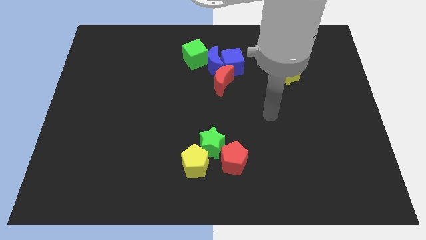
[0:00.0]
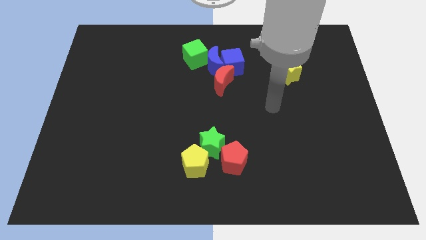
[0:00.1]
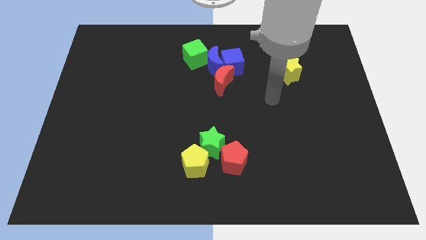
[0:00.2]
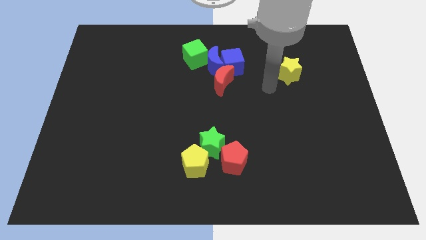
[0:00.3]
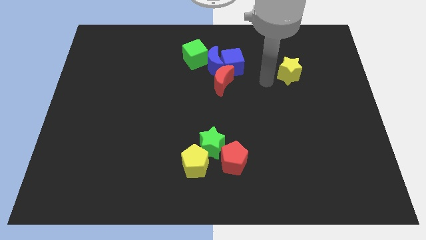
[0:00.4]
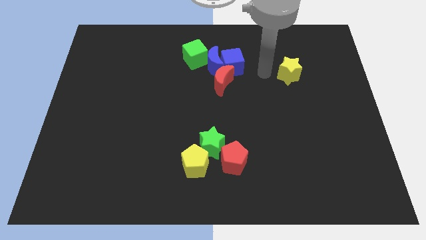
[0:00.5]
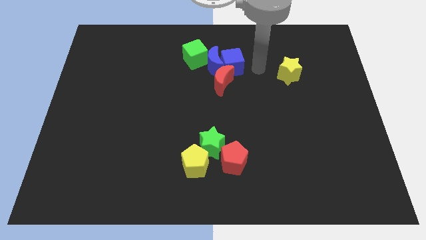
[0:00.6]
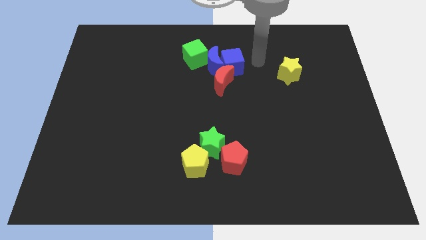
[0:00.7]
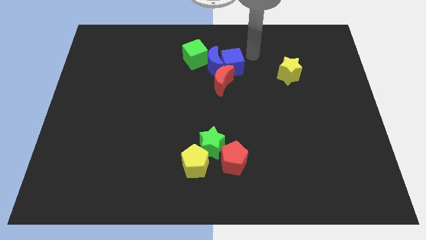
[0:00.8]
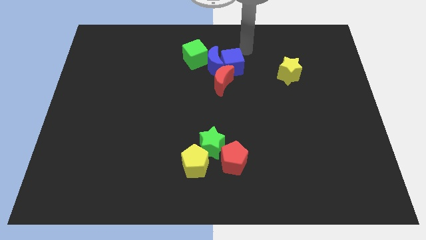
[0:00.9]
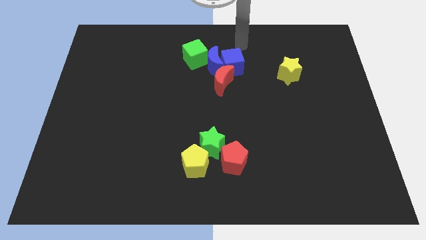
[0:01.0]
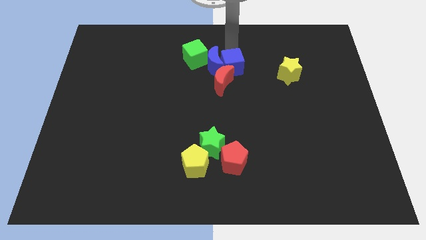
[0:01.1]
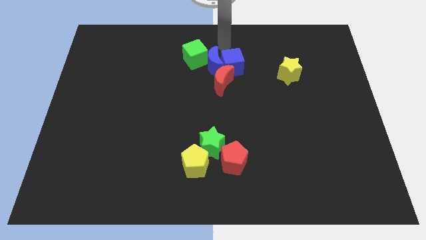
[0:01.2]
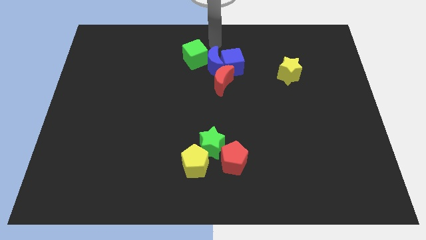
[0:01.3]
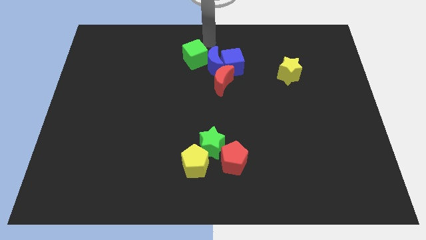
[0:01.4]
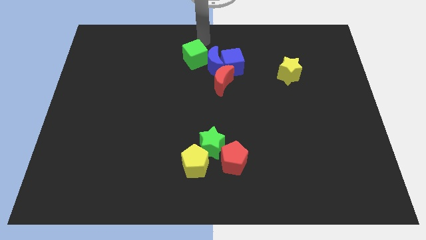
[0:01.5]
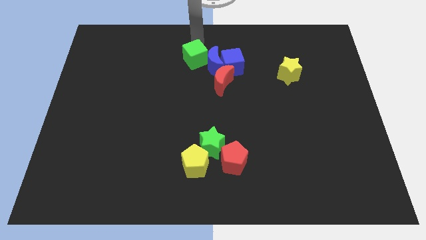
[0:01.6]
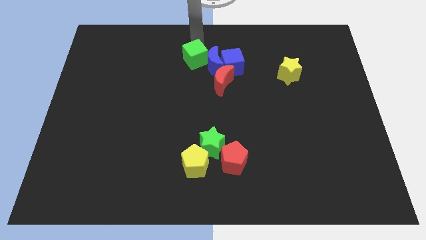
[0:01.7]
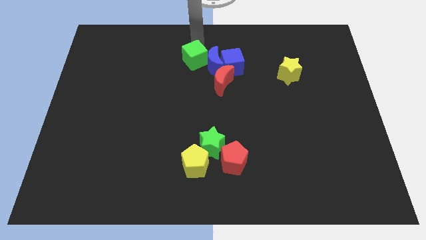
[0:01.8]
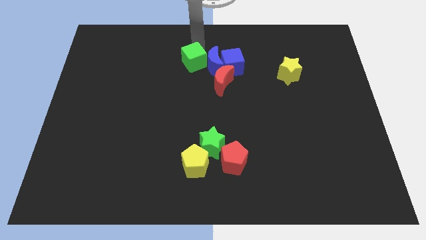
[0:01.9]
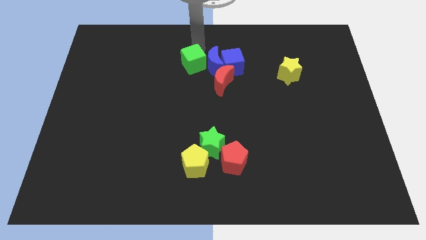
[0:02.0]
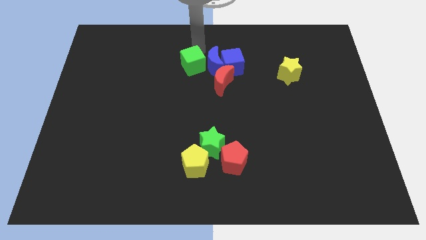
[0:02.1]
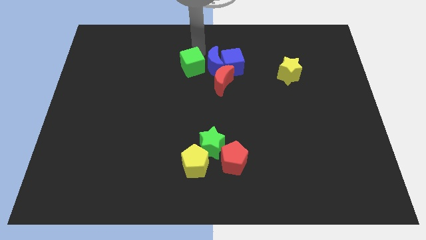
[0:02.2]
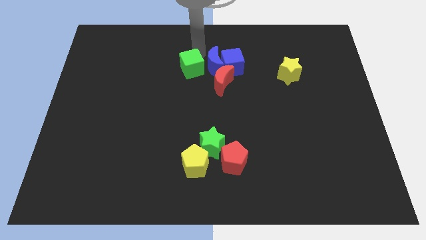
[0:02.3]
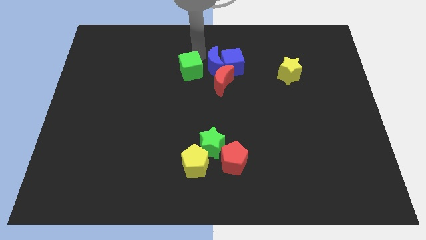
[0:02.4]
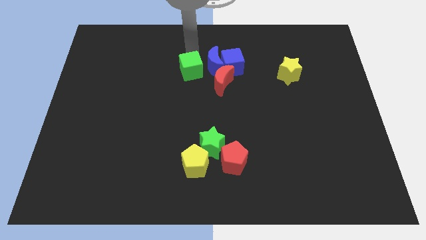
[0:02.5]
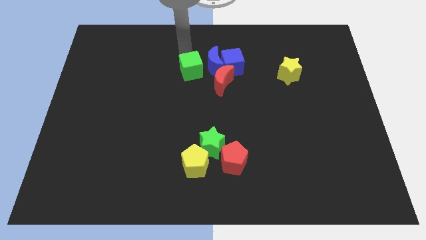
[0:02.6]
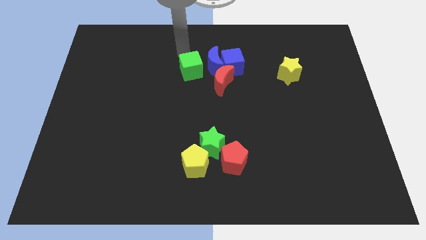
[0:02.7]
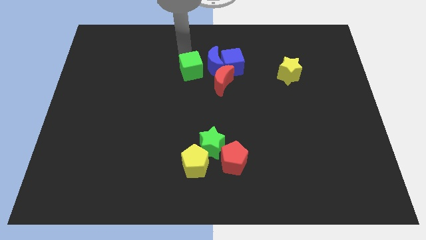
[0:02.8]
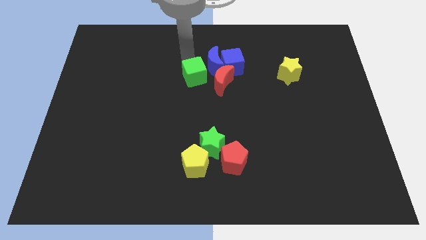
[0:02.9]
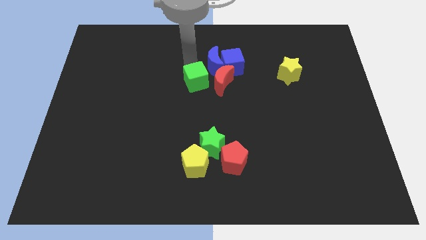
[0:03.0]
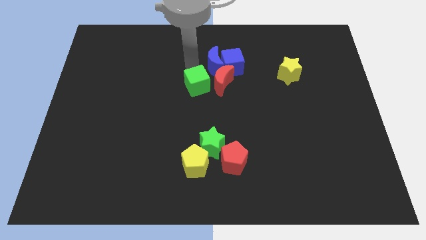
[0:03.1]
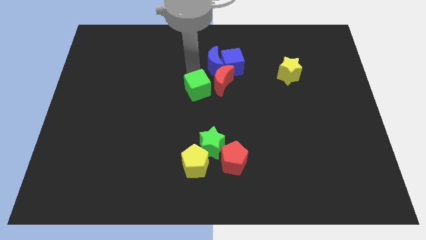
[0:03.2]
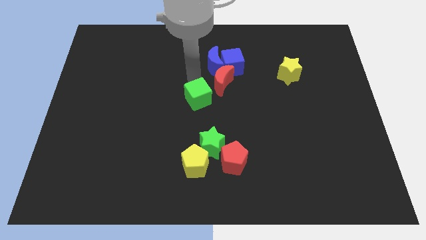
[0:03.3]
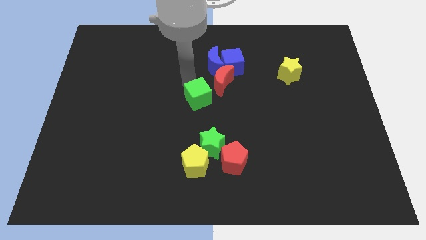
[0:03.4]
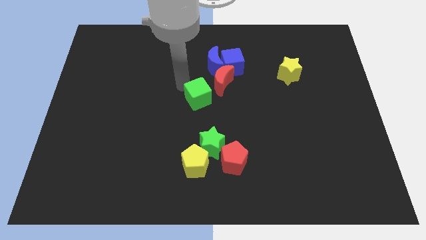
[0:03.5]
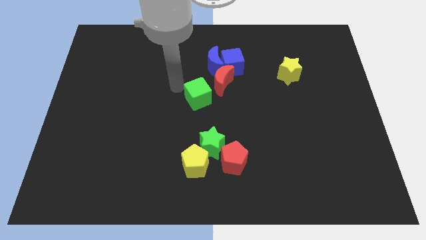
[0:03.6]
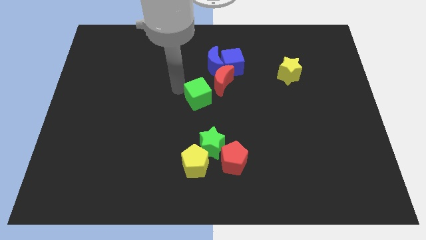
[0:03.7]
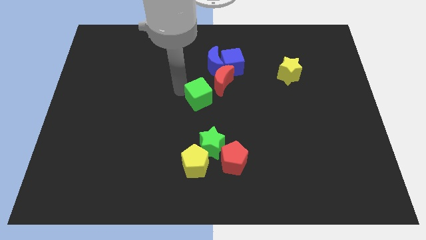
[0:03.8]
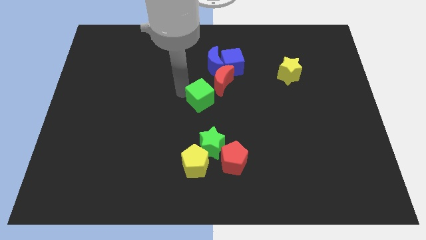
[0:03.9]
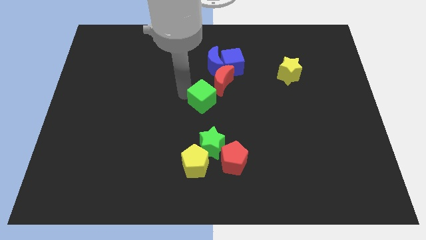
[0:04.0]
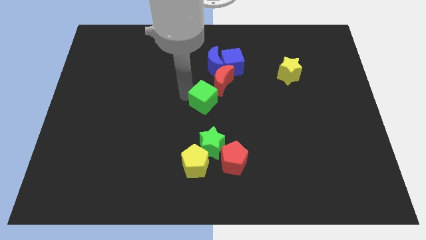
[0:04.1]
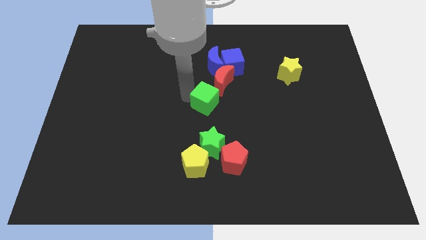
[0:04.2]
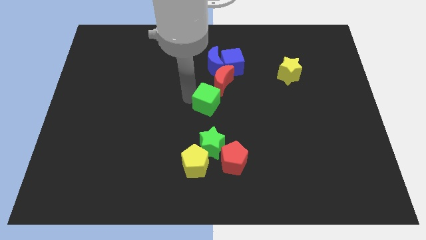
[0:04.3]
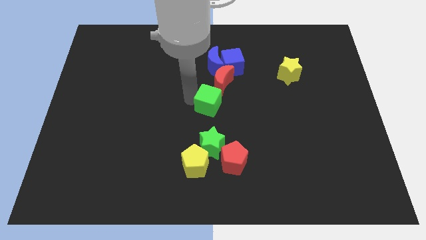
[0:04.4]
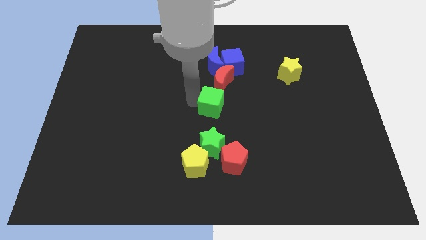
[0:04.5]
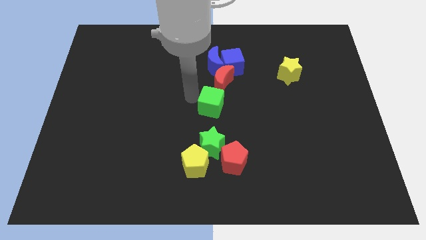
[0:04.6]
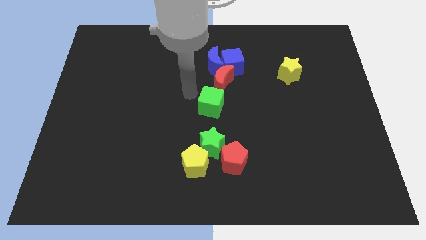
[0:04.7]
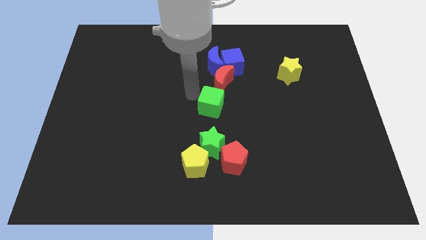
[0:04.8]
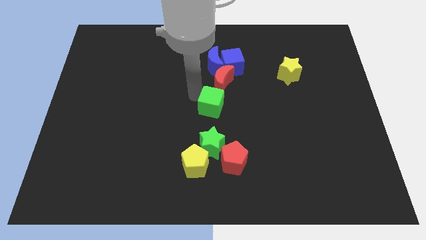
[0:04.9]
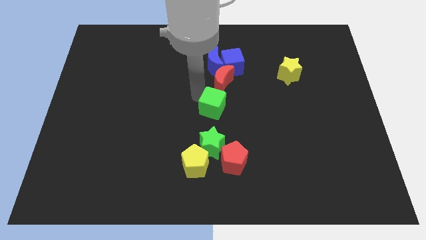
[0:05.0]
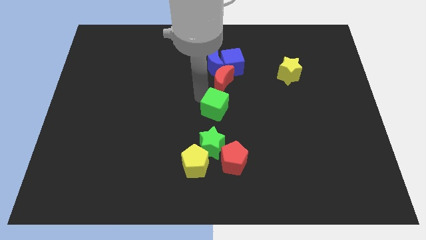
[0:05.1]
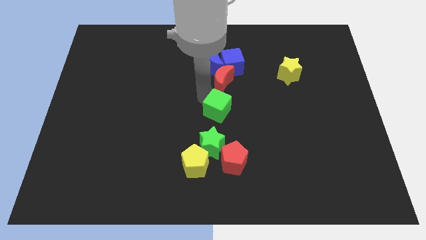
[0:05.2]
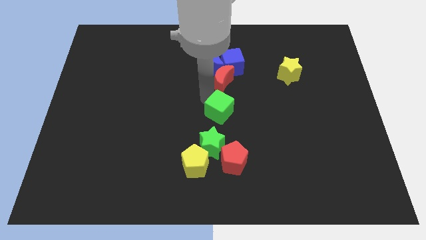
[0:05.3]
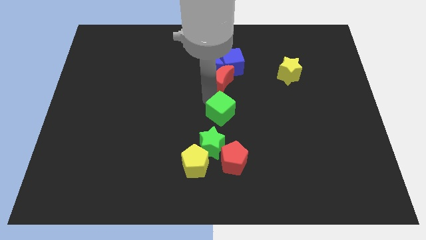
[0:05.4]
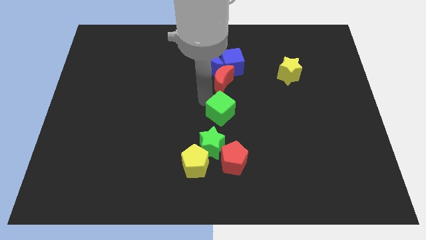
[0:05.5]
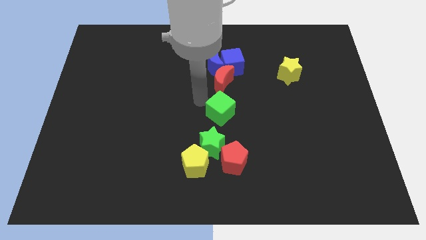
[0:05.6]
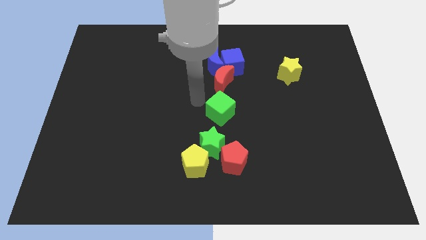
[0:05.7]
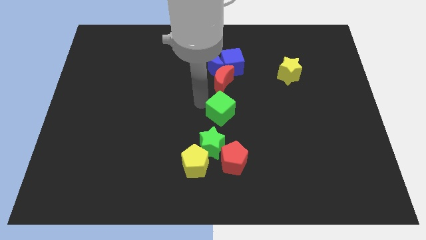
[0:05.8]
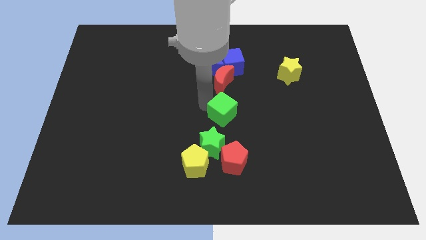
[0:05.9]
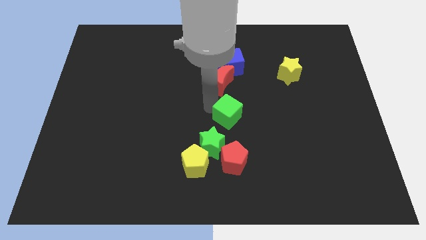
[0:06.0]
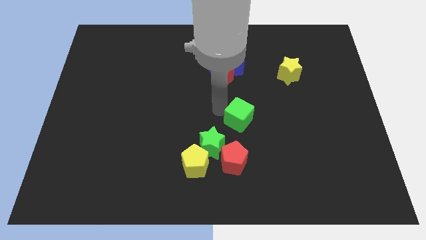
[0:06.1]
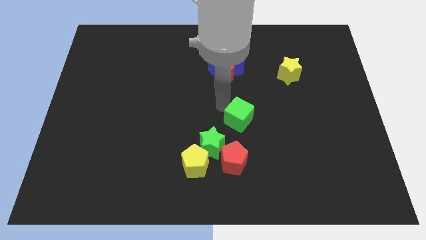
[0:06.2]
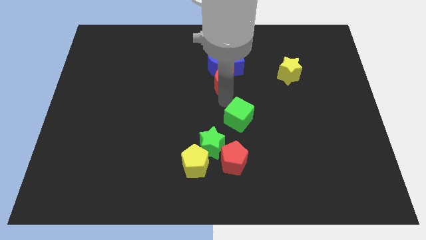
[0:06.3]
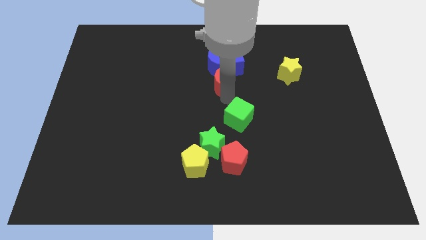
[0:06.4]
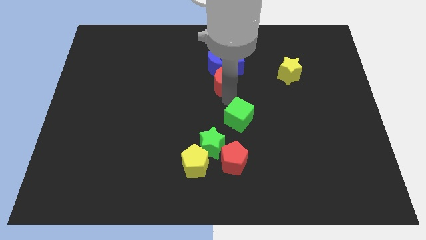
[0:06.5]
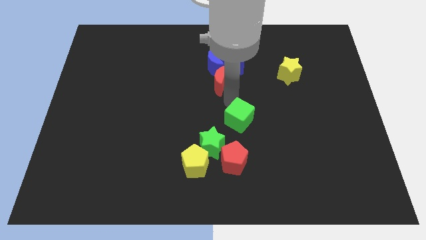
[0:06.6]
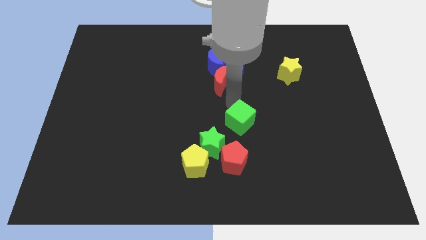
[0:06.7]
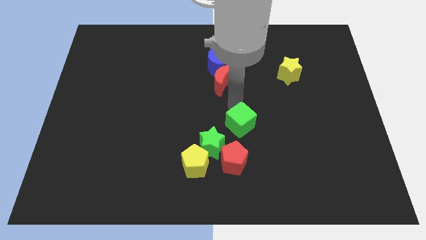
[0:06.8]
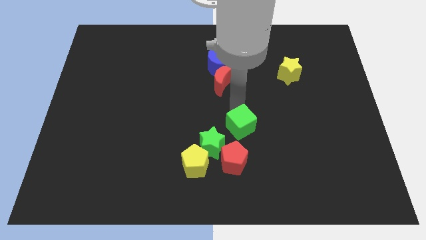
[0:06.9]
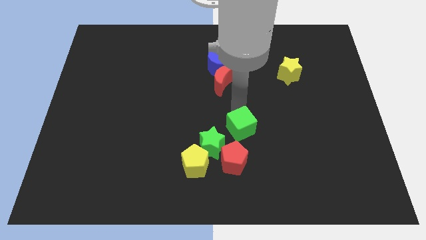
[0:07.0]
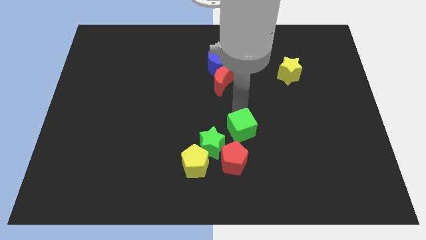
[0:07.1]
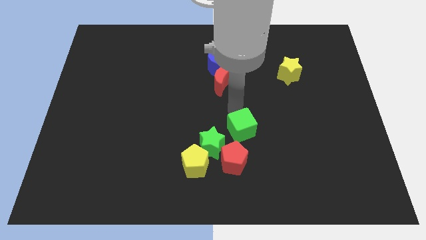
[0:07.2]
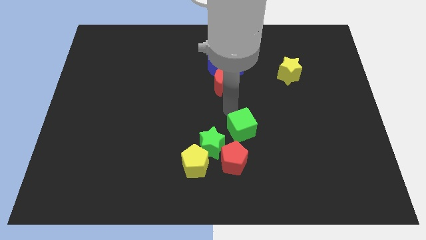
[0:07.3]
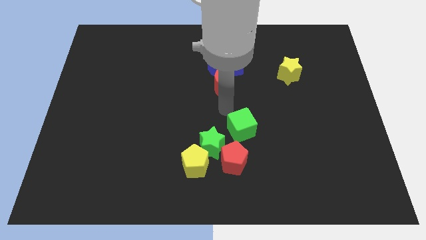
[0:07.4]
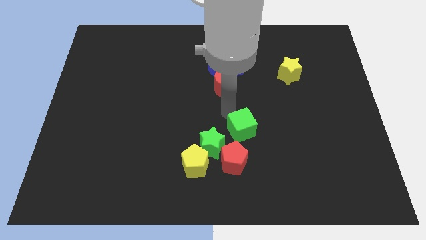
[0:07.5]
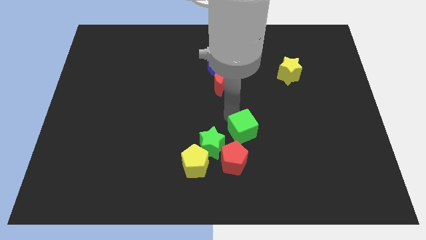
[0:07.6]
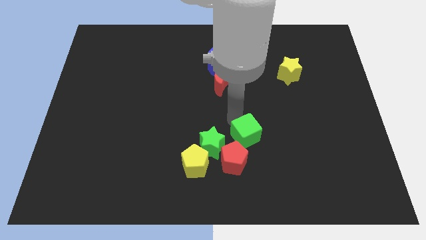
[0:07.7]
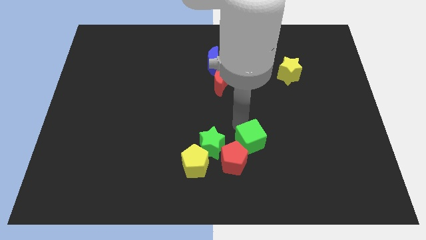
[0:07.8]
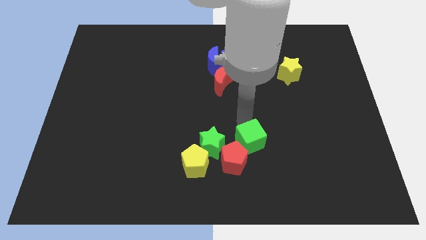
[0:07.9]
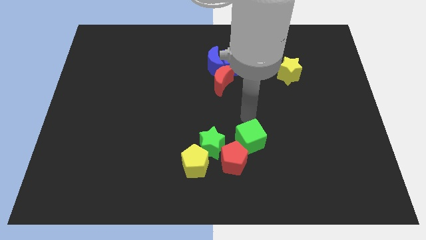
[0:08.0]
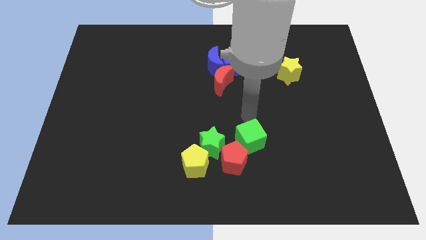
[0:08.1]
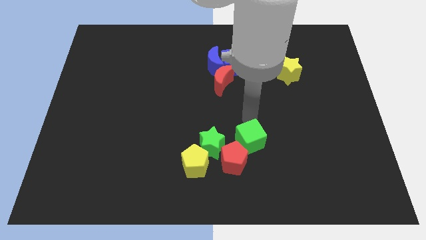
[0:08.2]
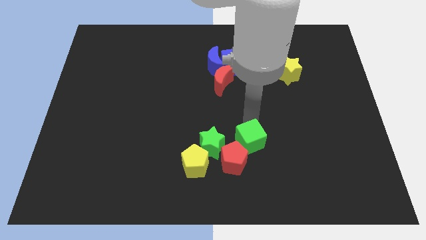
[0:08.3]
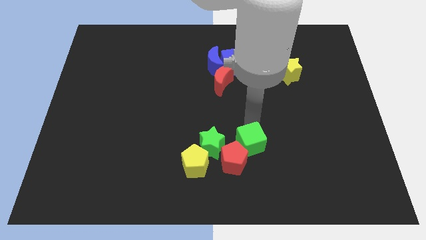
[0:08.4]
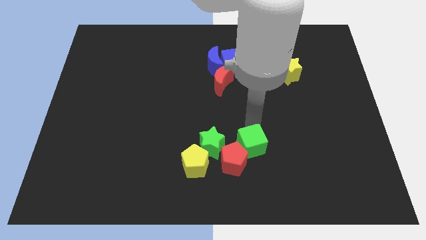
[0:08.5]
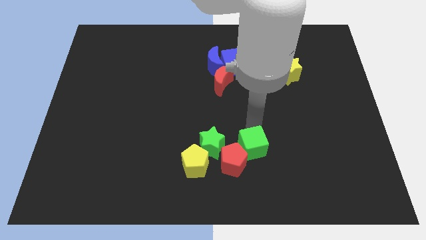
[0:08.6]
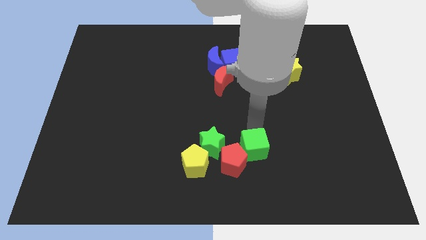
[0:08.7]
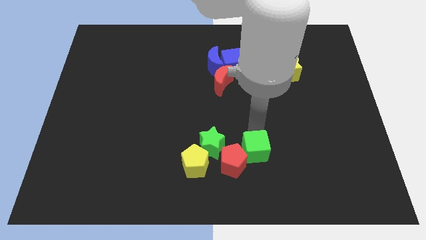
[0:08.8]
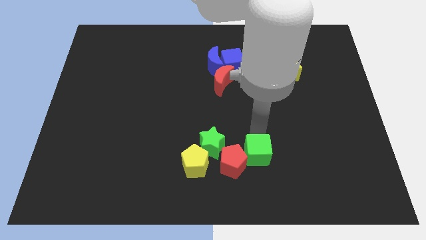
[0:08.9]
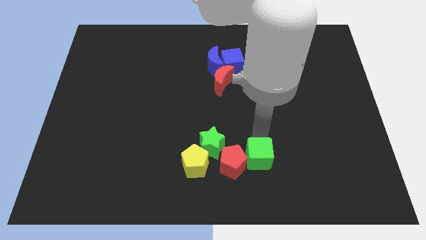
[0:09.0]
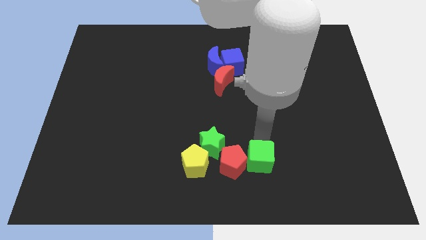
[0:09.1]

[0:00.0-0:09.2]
put the green cube to the bottom right of the red pentagon
